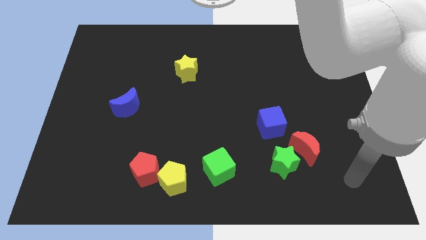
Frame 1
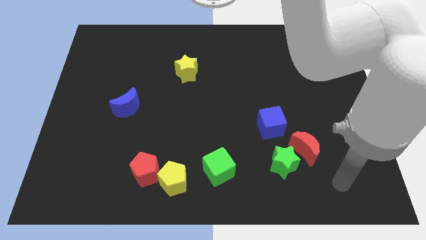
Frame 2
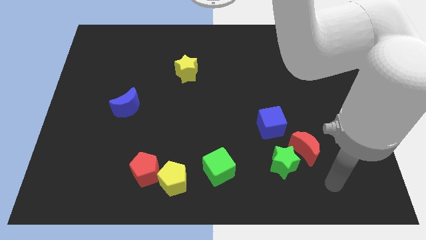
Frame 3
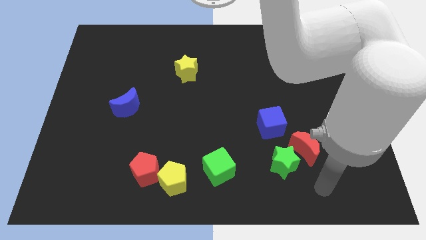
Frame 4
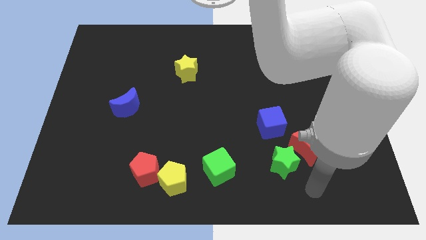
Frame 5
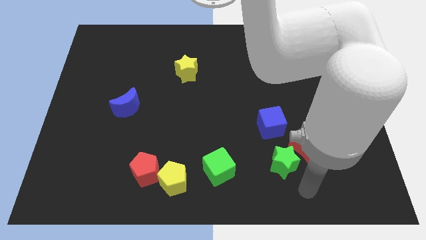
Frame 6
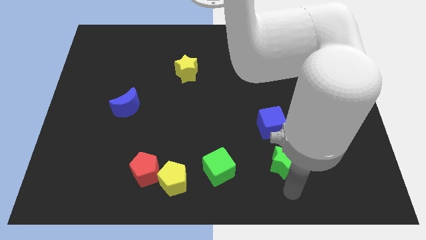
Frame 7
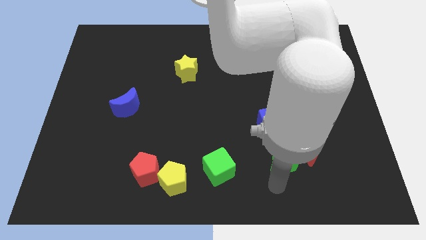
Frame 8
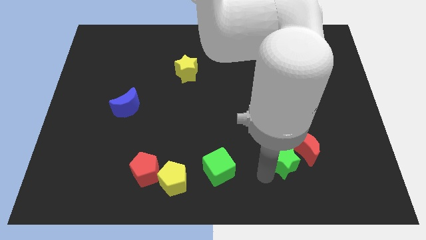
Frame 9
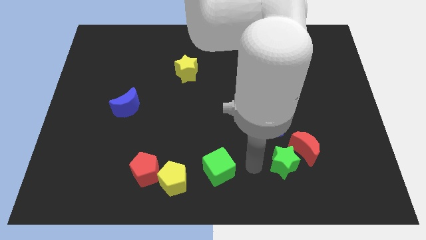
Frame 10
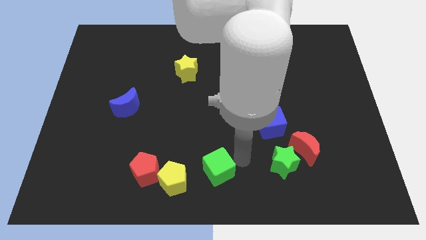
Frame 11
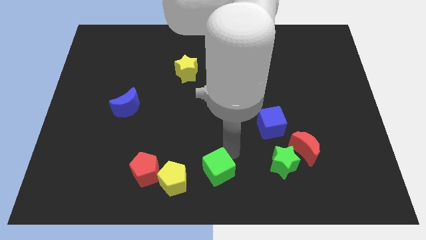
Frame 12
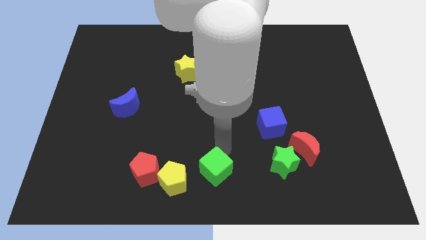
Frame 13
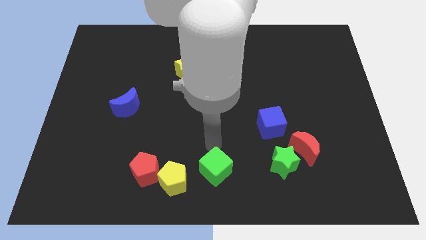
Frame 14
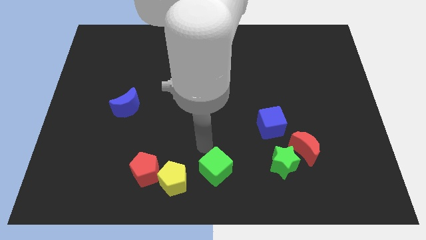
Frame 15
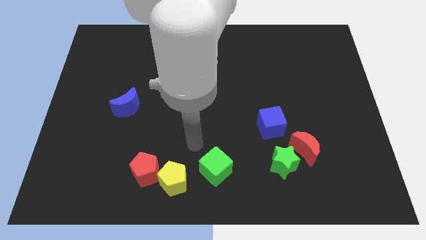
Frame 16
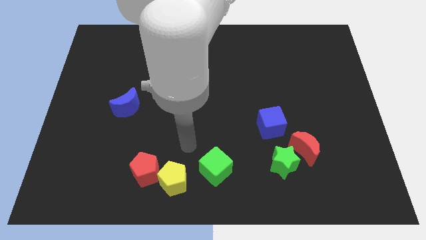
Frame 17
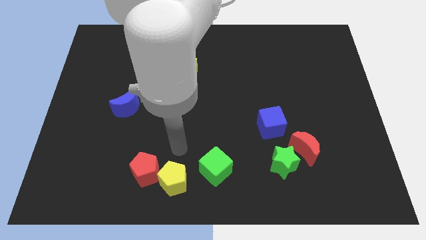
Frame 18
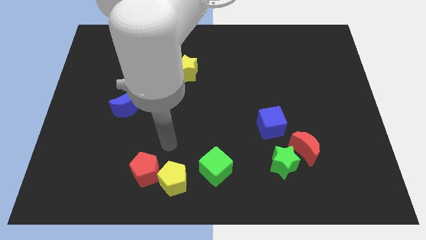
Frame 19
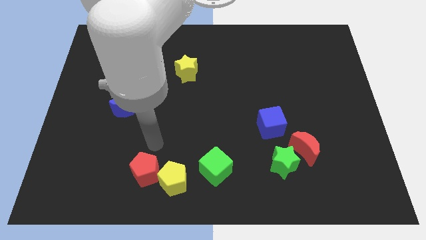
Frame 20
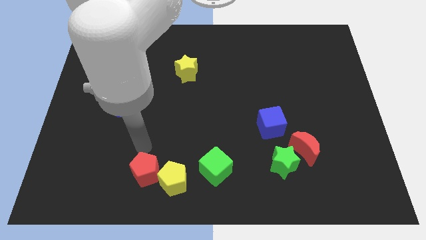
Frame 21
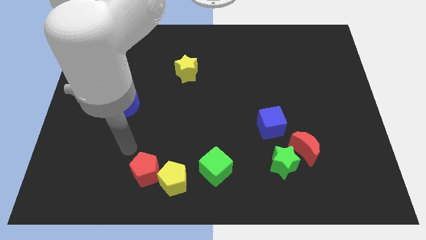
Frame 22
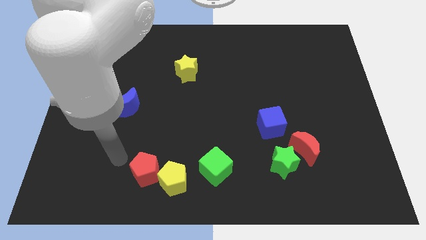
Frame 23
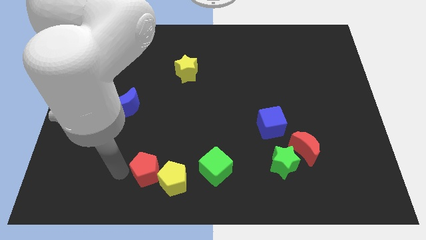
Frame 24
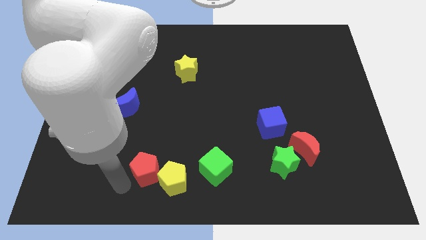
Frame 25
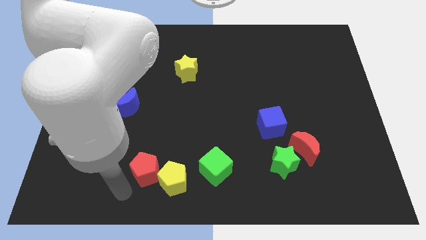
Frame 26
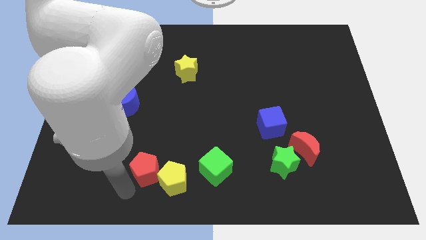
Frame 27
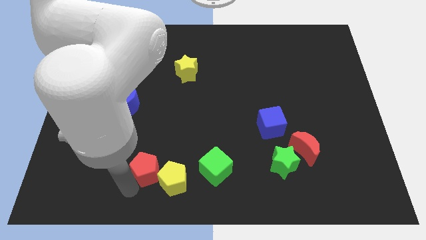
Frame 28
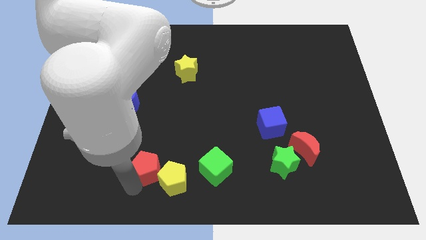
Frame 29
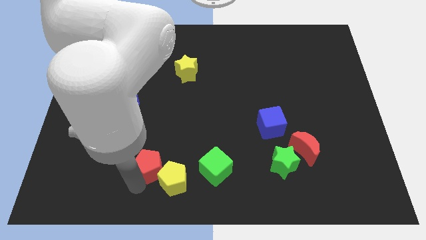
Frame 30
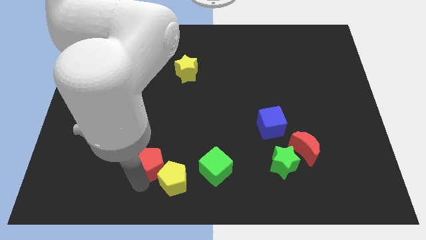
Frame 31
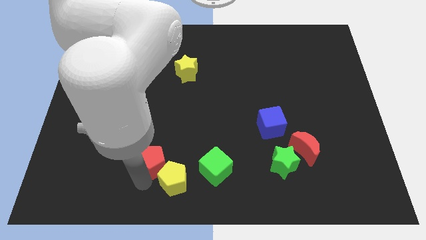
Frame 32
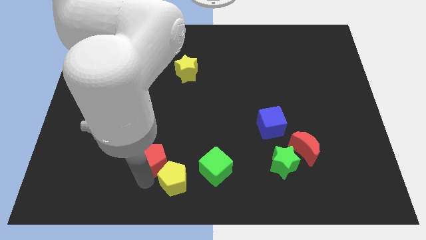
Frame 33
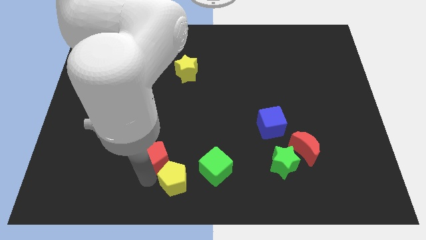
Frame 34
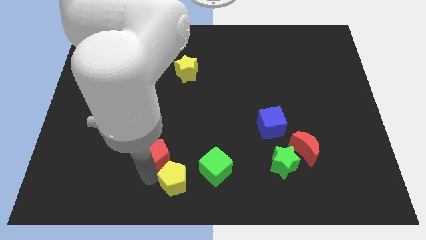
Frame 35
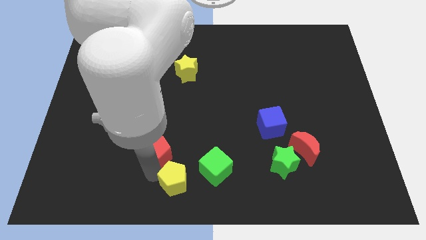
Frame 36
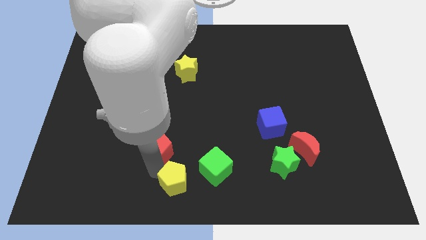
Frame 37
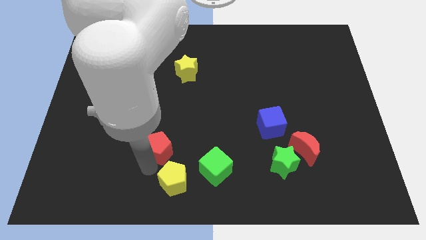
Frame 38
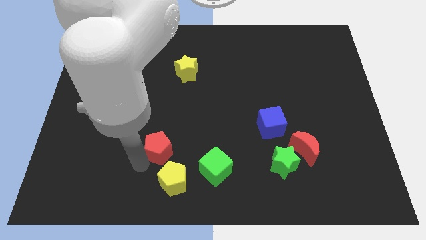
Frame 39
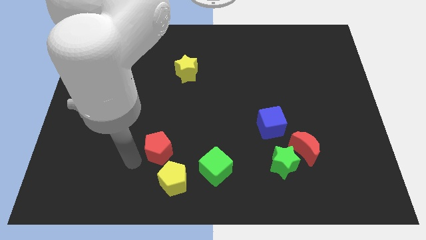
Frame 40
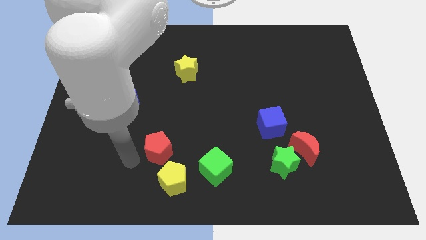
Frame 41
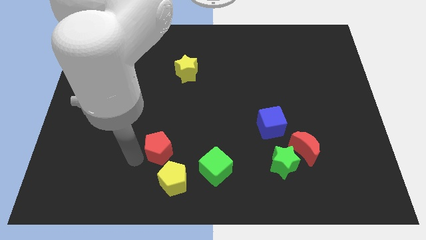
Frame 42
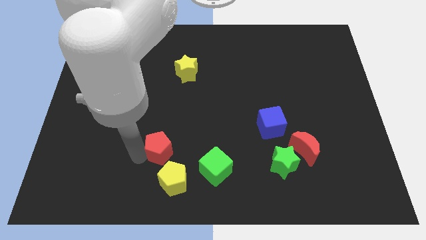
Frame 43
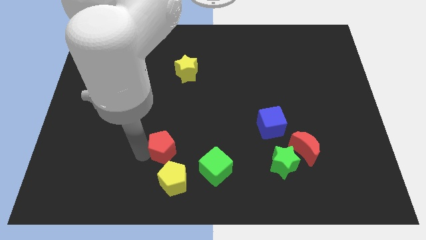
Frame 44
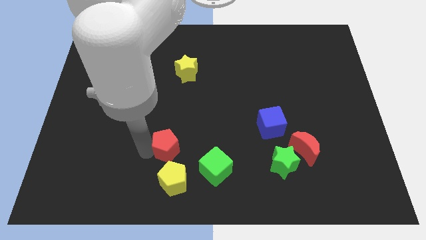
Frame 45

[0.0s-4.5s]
slightly push the red pentagon up and then right

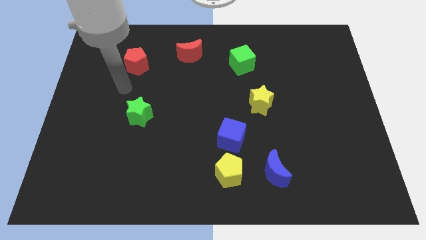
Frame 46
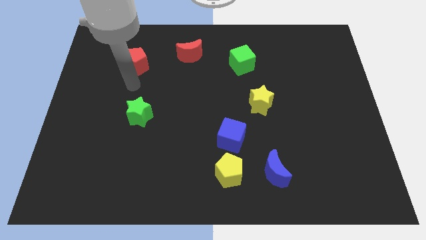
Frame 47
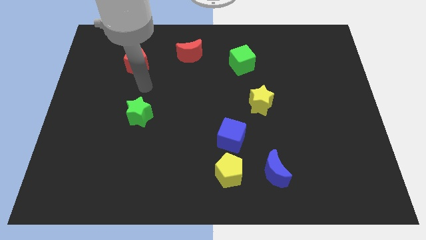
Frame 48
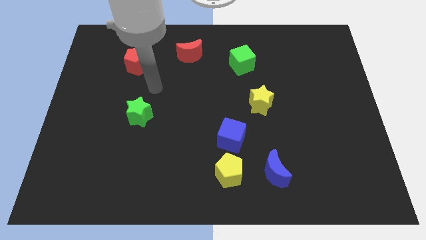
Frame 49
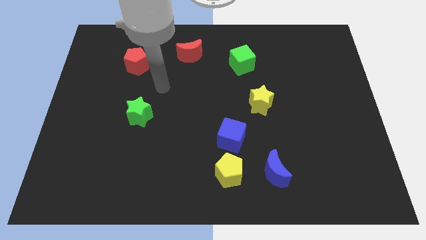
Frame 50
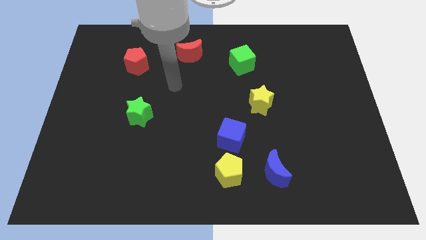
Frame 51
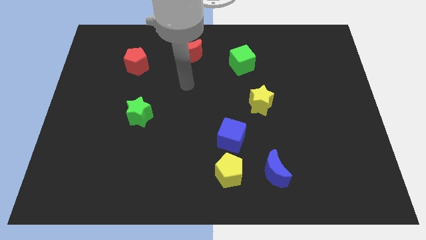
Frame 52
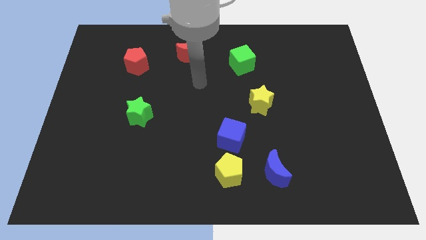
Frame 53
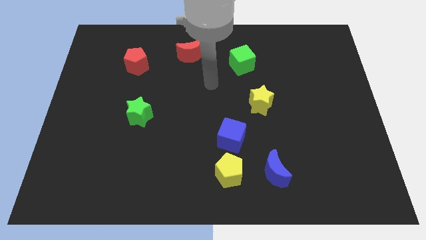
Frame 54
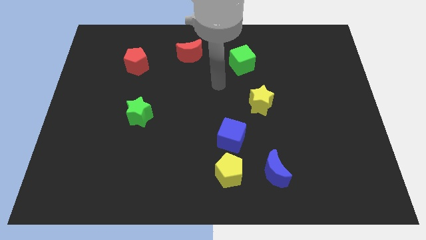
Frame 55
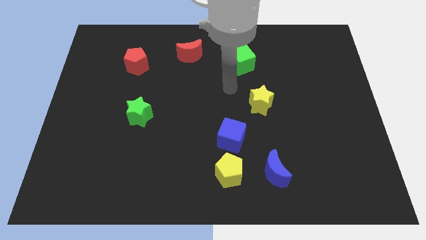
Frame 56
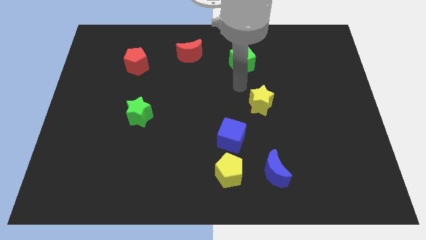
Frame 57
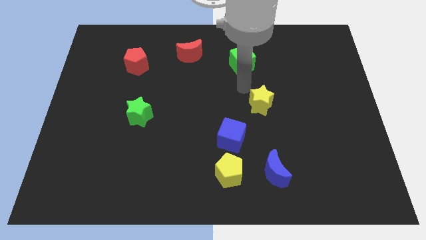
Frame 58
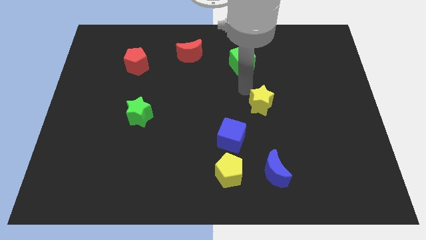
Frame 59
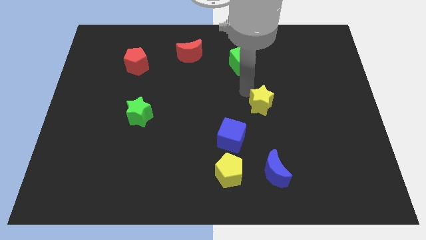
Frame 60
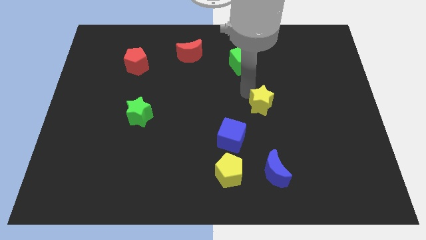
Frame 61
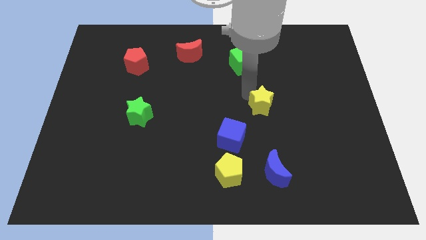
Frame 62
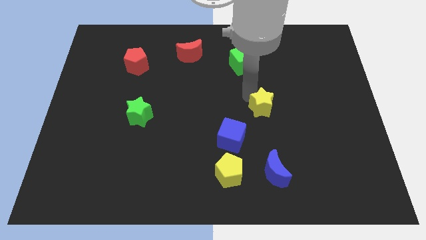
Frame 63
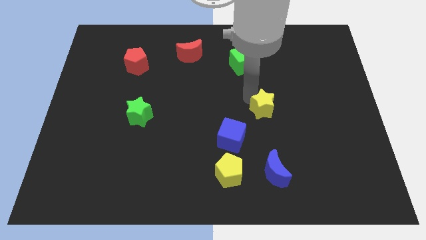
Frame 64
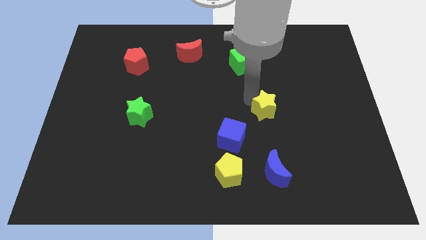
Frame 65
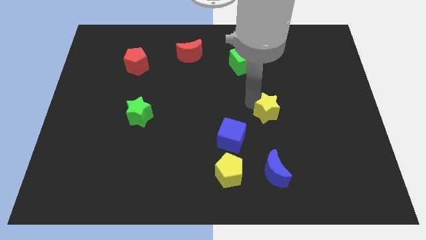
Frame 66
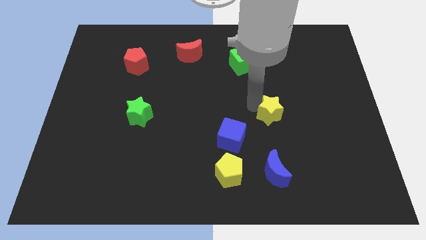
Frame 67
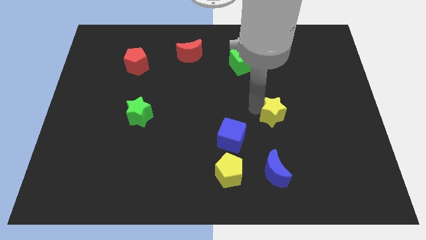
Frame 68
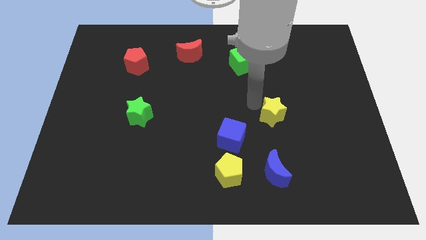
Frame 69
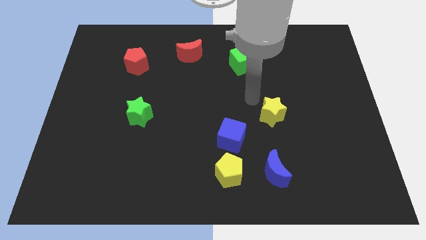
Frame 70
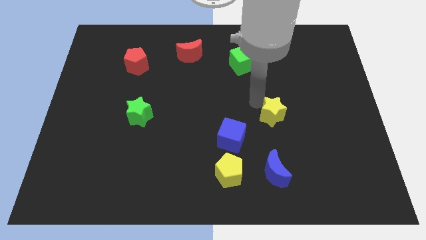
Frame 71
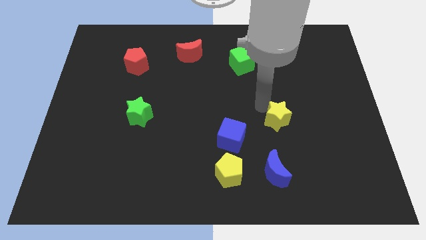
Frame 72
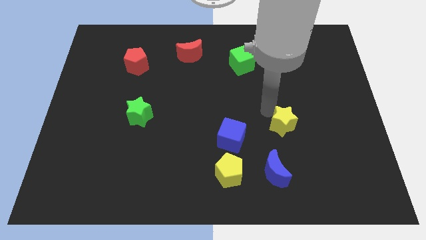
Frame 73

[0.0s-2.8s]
slide the yellow star slightly diagonally downwards and right

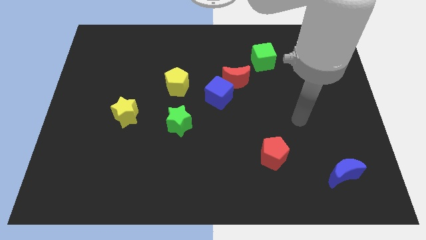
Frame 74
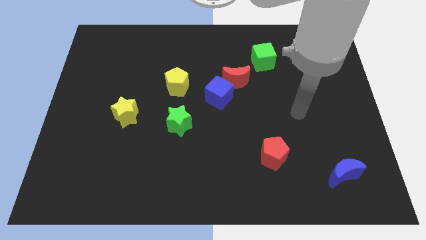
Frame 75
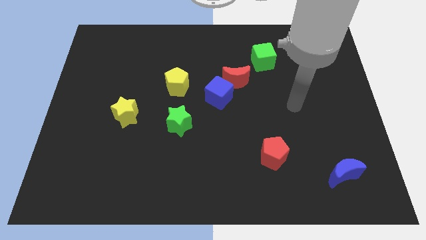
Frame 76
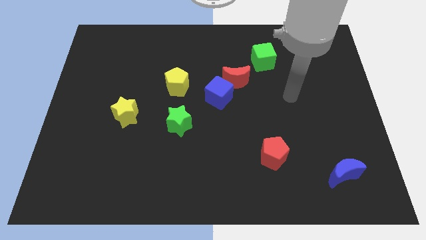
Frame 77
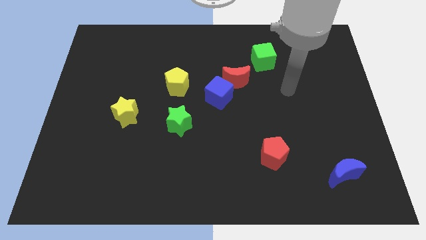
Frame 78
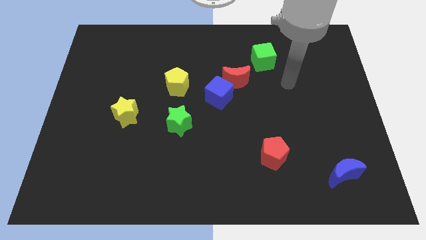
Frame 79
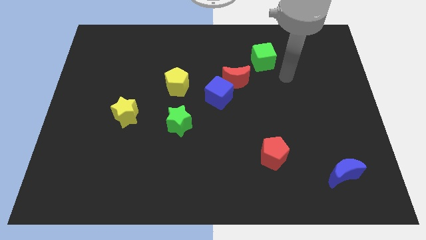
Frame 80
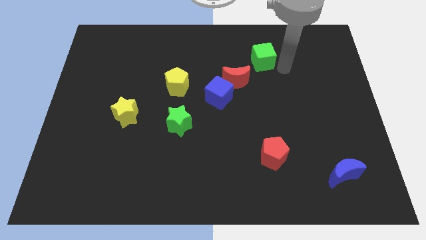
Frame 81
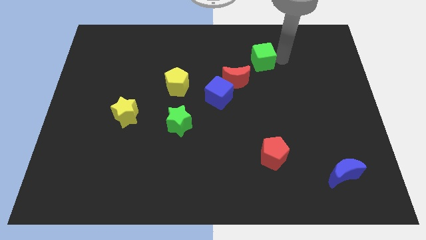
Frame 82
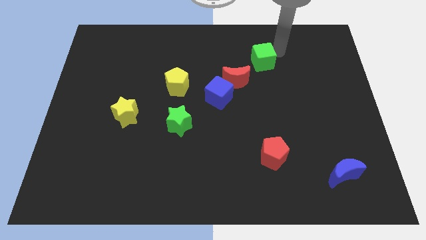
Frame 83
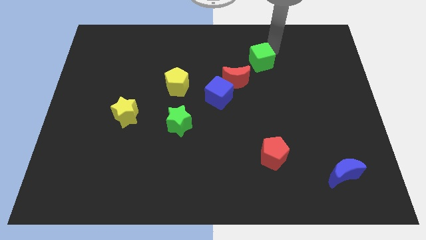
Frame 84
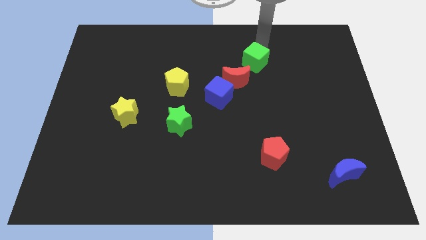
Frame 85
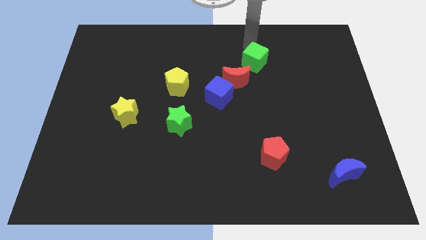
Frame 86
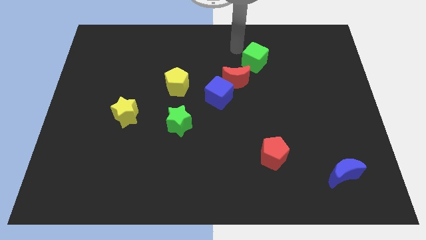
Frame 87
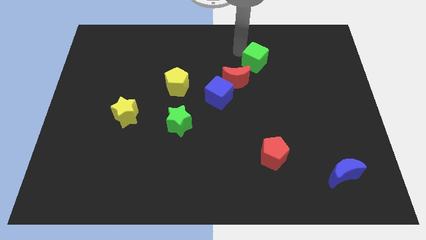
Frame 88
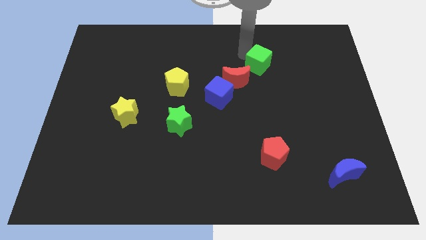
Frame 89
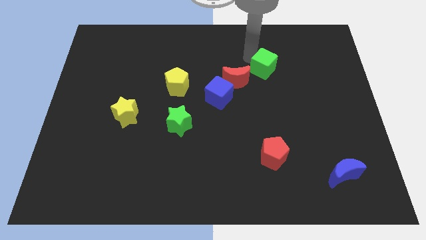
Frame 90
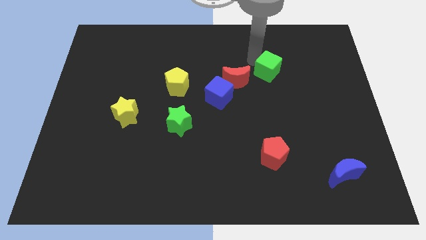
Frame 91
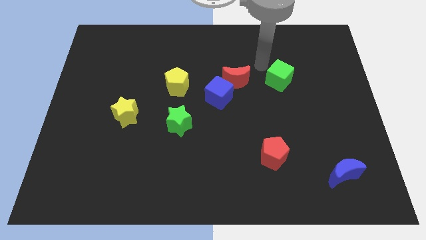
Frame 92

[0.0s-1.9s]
slide the green cube slightly downwards and right diagonally
